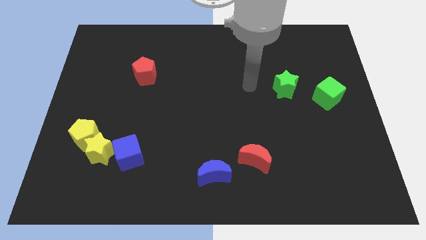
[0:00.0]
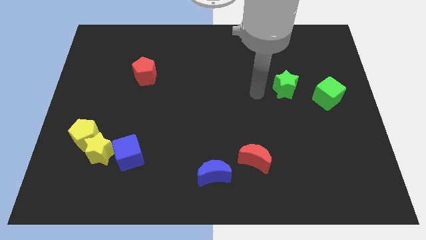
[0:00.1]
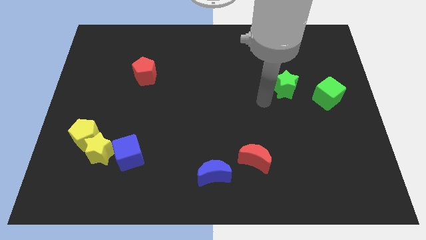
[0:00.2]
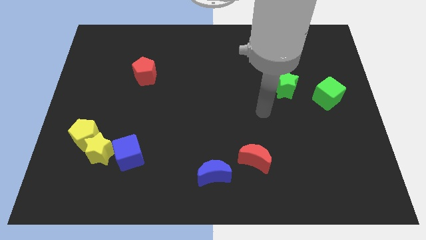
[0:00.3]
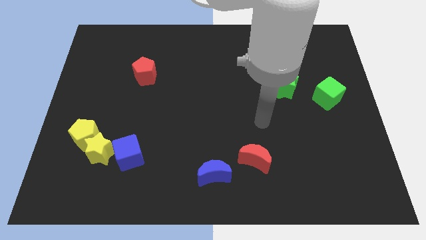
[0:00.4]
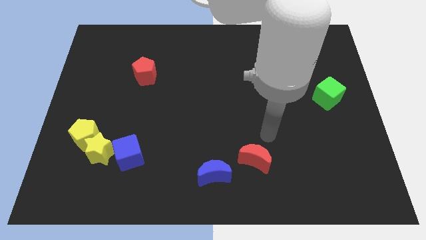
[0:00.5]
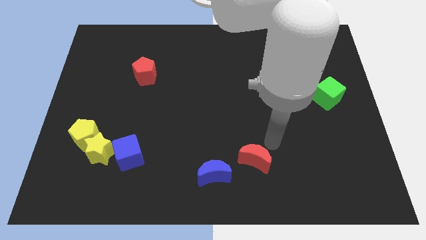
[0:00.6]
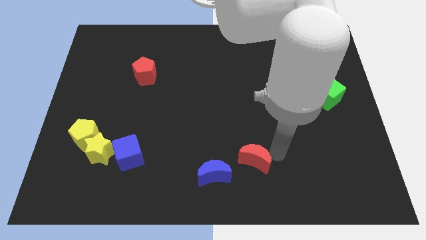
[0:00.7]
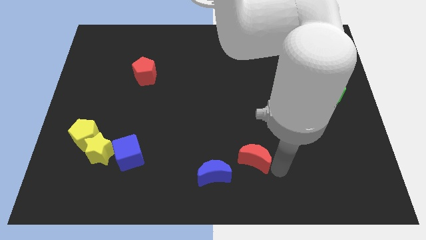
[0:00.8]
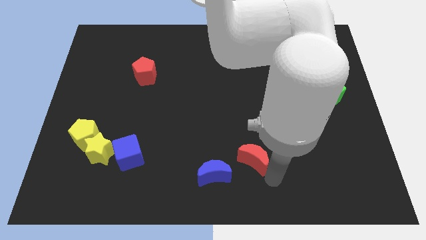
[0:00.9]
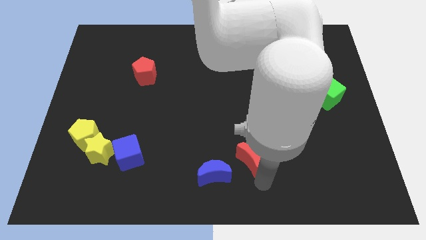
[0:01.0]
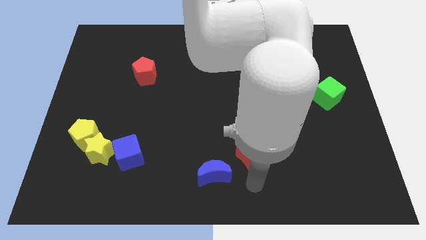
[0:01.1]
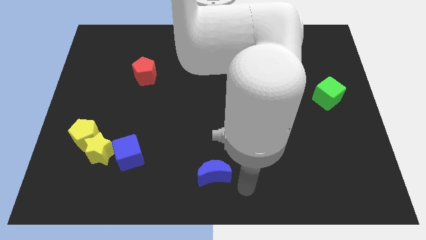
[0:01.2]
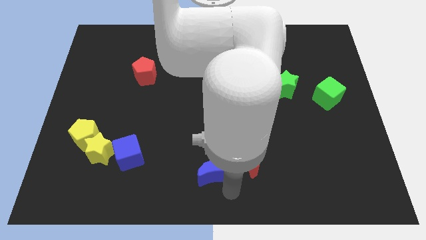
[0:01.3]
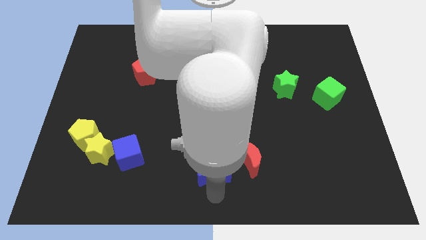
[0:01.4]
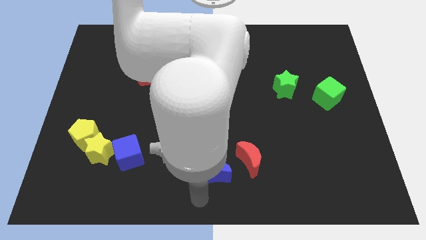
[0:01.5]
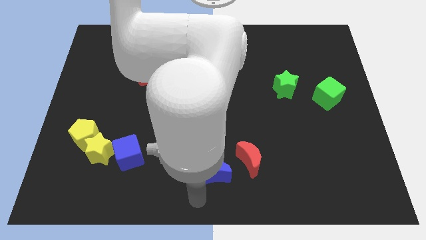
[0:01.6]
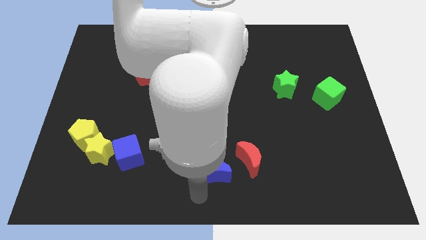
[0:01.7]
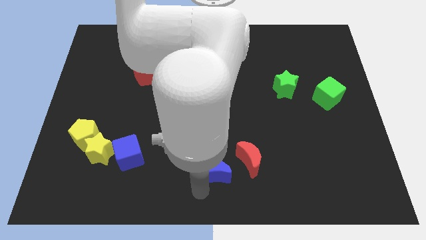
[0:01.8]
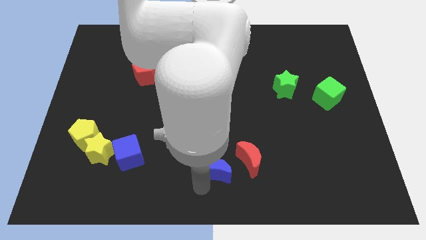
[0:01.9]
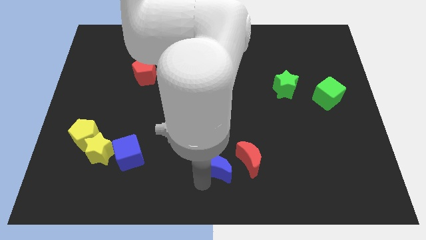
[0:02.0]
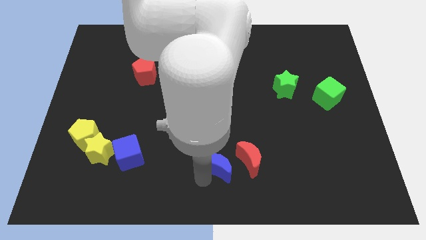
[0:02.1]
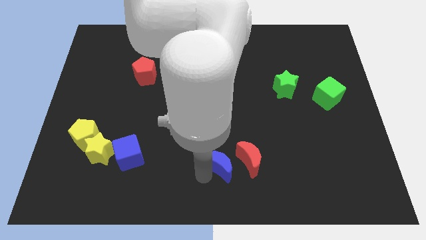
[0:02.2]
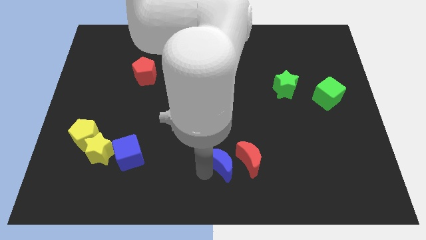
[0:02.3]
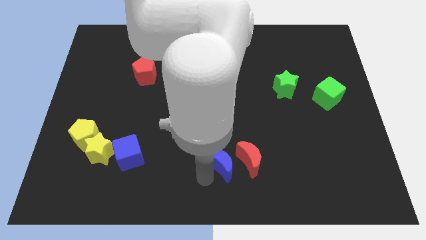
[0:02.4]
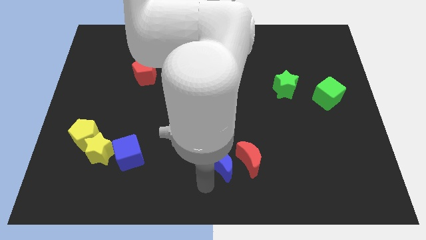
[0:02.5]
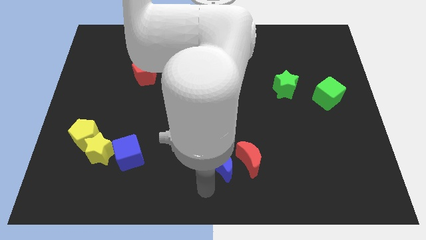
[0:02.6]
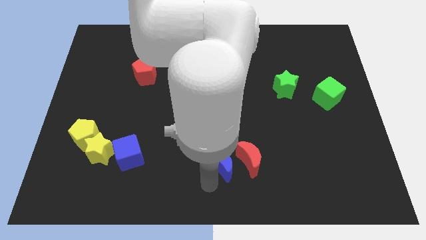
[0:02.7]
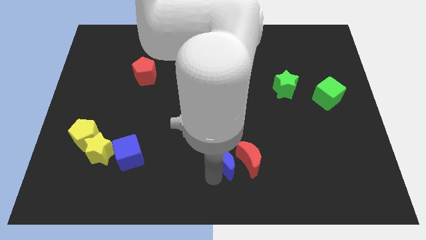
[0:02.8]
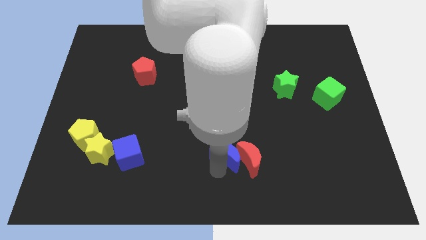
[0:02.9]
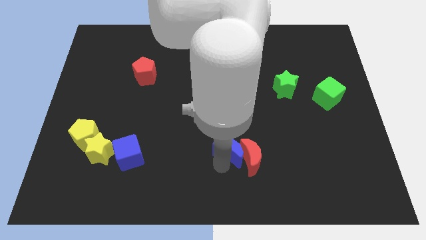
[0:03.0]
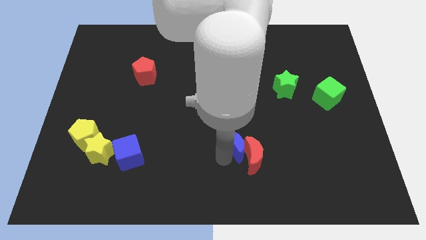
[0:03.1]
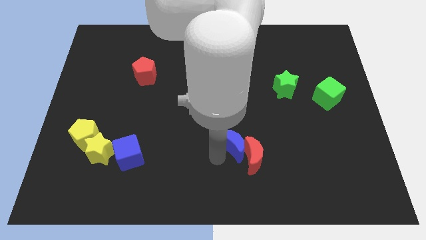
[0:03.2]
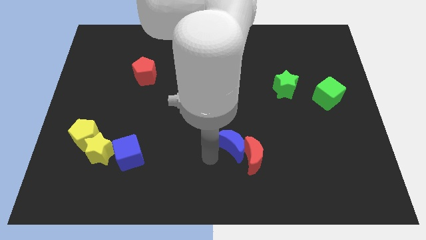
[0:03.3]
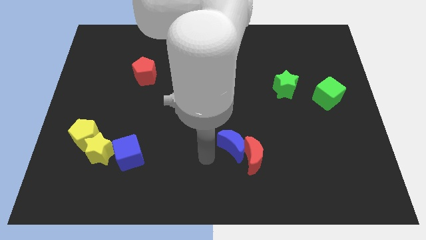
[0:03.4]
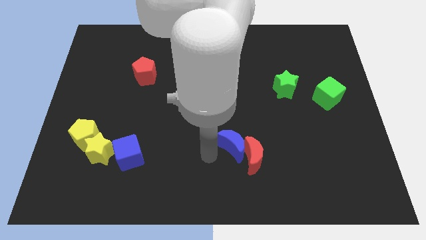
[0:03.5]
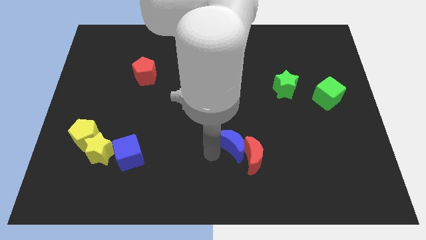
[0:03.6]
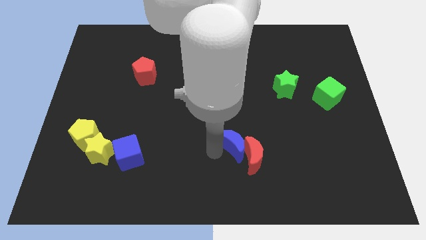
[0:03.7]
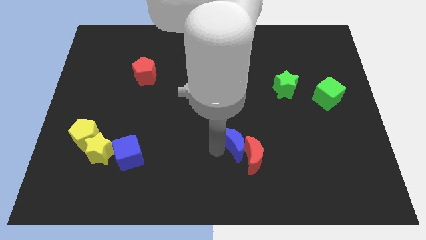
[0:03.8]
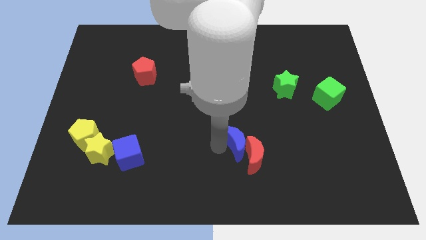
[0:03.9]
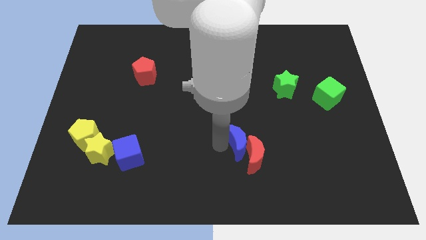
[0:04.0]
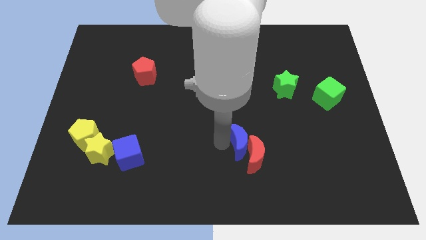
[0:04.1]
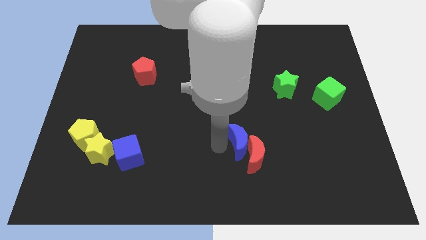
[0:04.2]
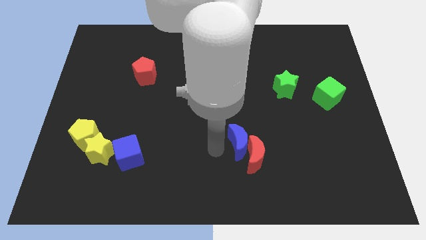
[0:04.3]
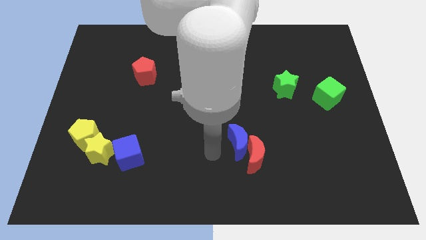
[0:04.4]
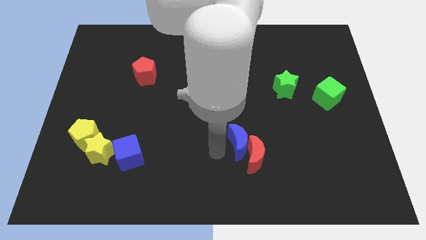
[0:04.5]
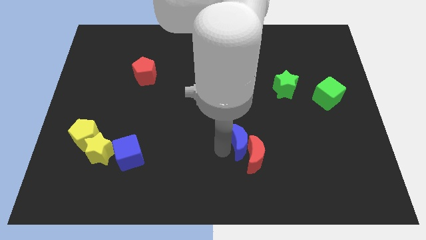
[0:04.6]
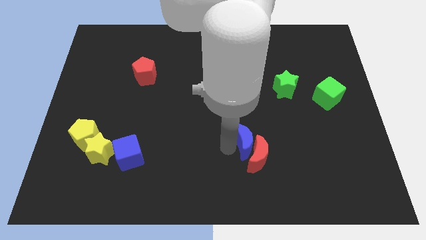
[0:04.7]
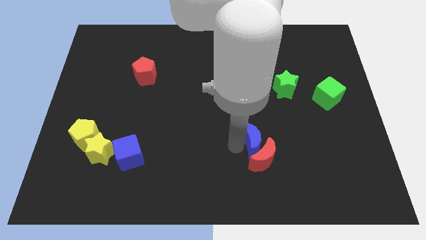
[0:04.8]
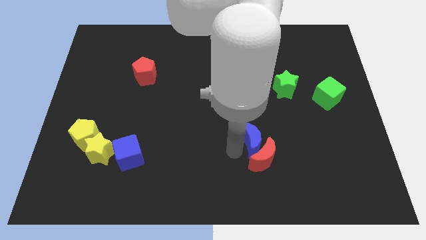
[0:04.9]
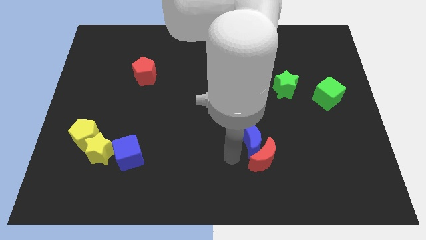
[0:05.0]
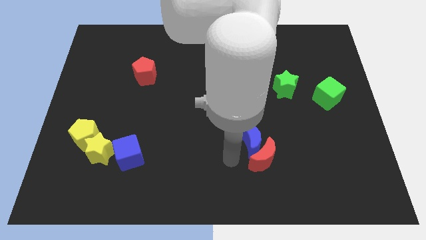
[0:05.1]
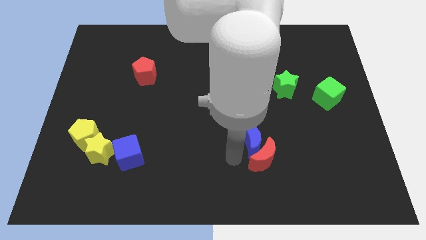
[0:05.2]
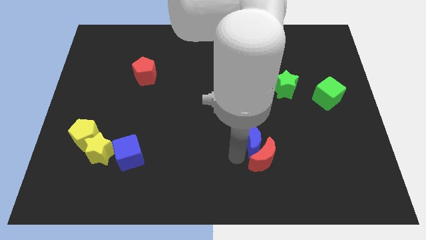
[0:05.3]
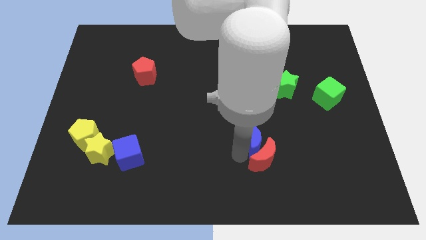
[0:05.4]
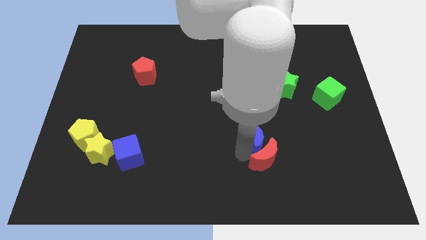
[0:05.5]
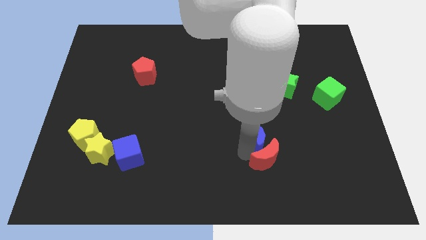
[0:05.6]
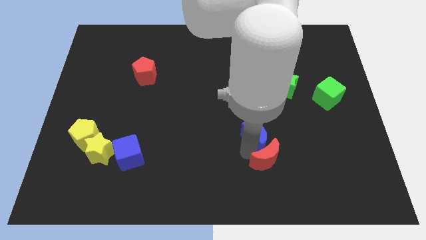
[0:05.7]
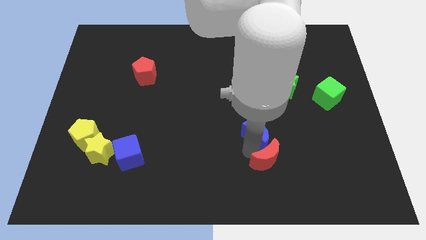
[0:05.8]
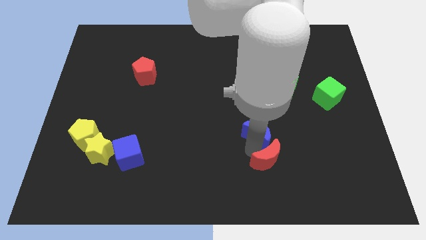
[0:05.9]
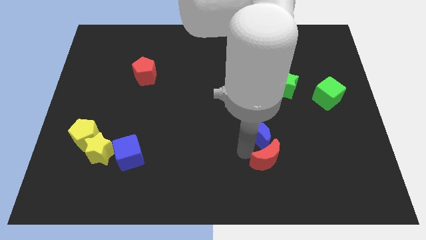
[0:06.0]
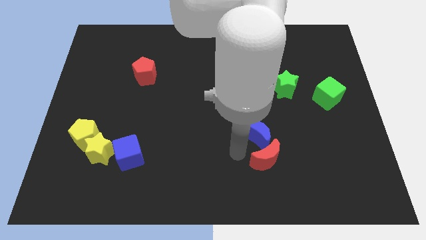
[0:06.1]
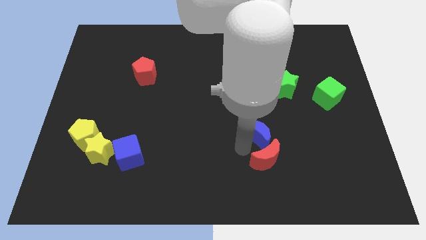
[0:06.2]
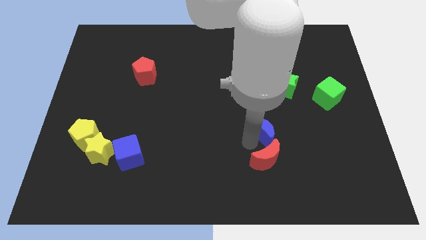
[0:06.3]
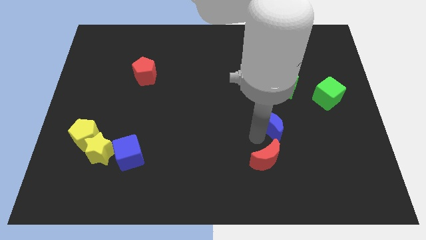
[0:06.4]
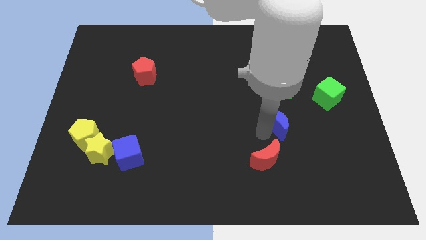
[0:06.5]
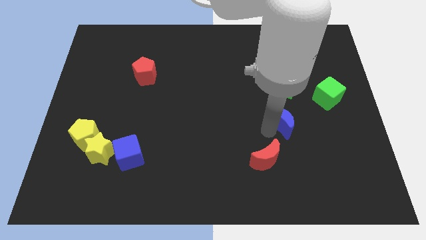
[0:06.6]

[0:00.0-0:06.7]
move the blue moon diagonally upwards and right

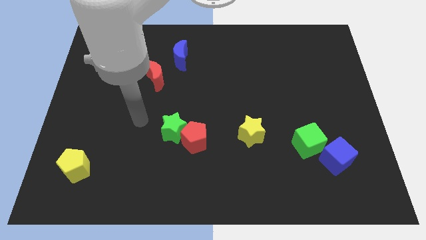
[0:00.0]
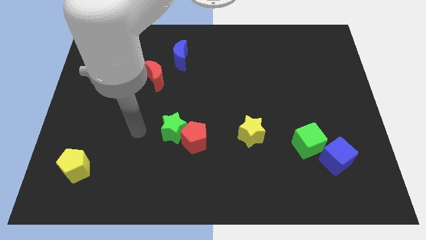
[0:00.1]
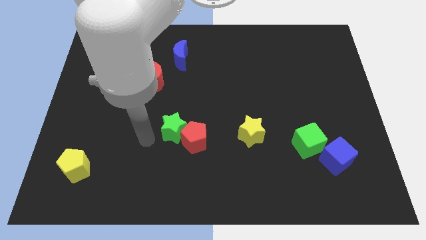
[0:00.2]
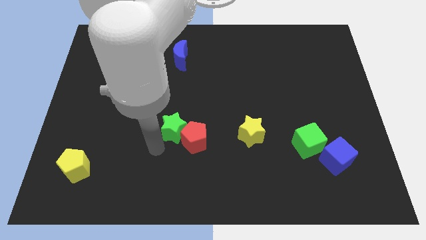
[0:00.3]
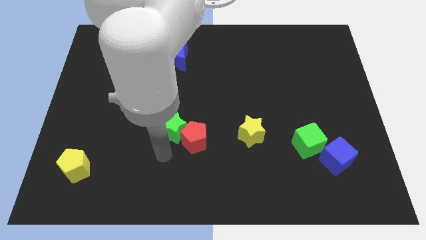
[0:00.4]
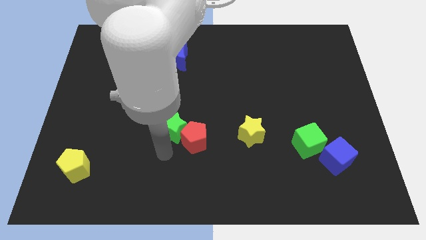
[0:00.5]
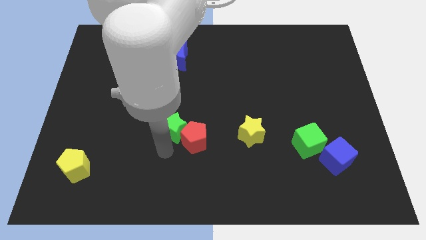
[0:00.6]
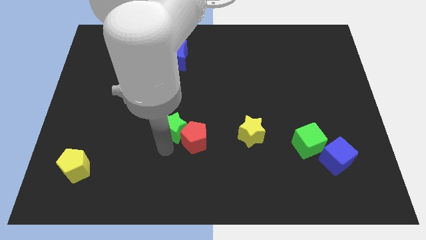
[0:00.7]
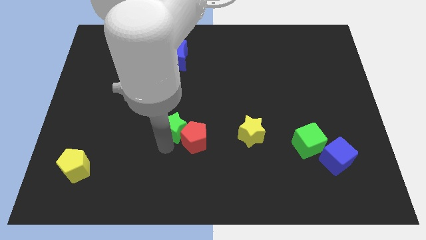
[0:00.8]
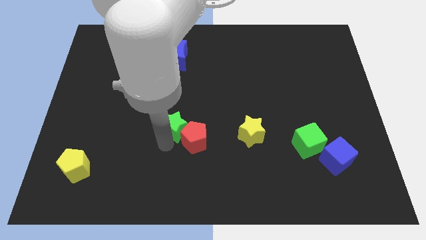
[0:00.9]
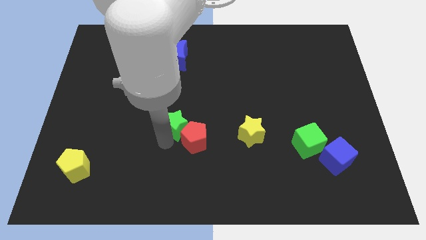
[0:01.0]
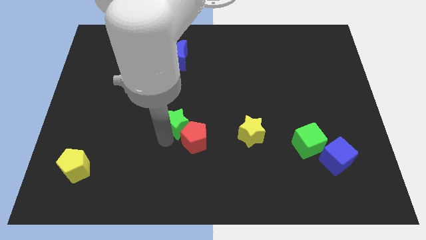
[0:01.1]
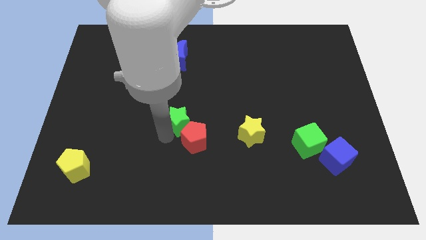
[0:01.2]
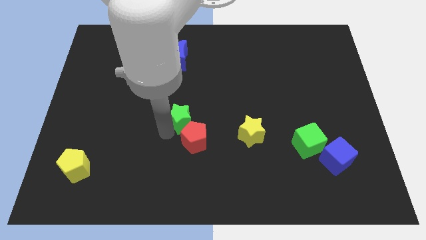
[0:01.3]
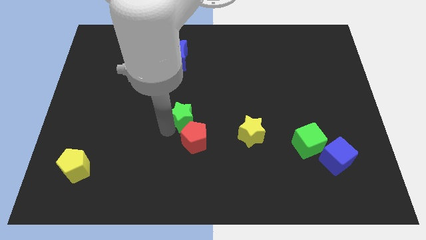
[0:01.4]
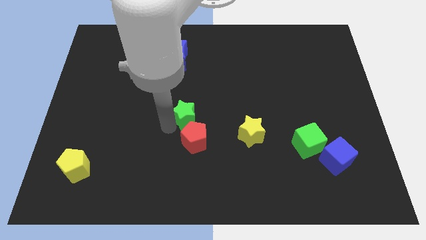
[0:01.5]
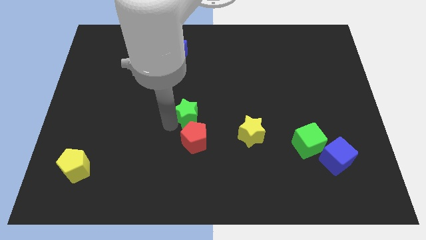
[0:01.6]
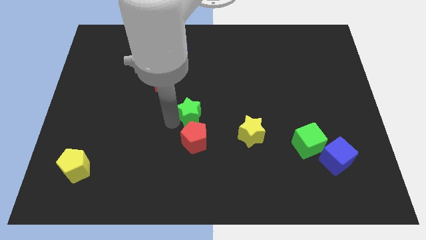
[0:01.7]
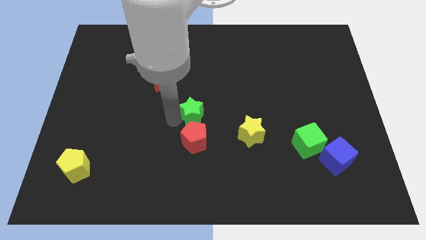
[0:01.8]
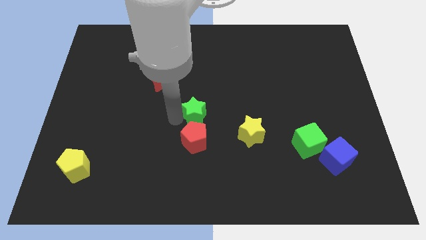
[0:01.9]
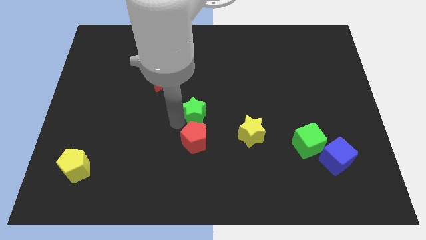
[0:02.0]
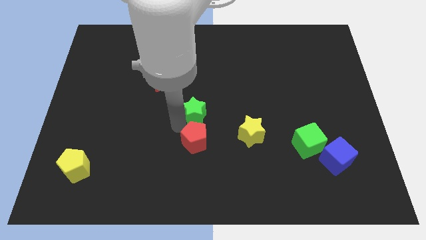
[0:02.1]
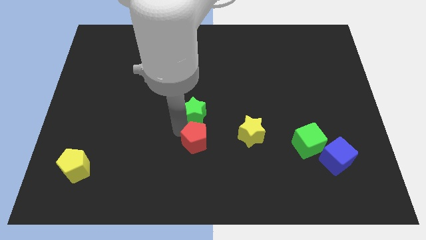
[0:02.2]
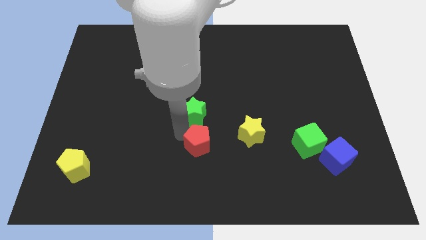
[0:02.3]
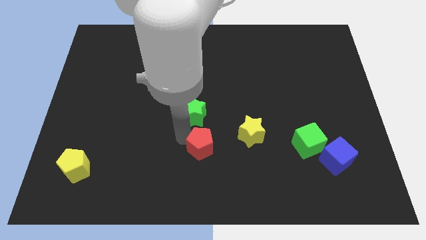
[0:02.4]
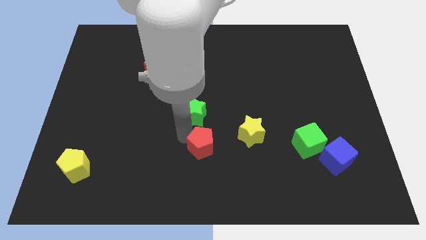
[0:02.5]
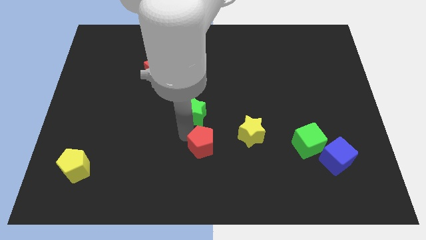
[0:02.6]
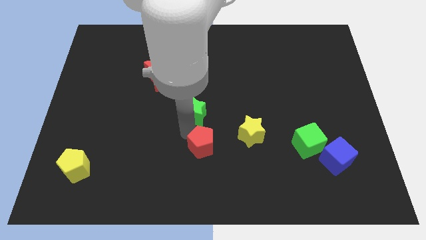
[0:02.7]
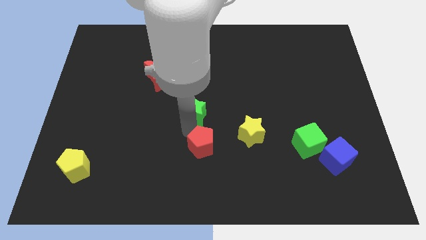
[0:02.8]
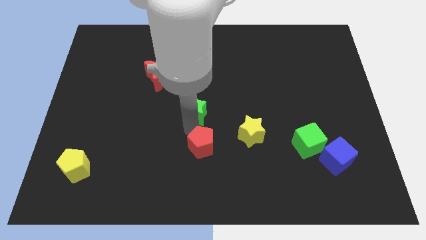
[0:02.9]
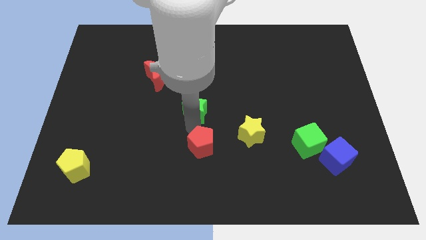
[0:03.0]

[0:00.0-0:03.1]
slightly push the green star diagonally up and to the right
